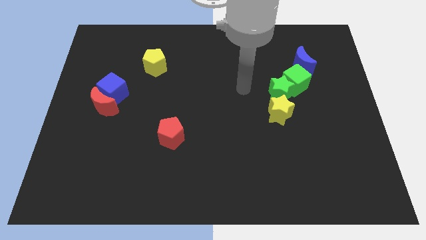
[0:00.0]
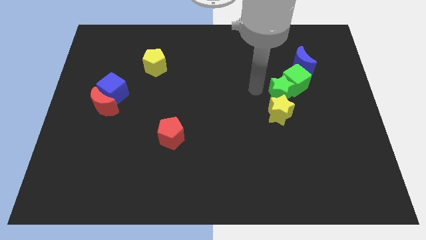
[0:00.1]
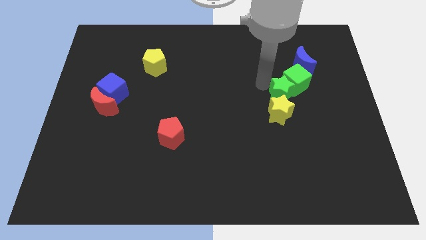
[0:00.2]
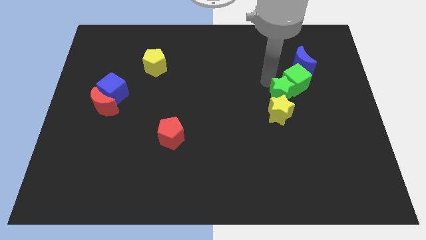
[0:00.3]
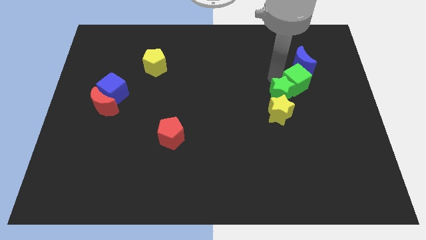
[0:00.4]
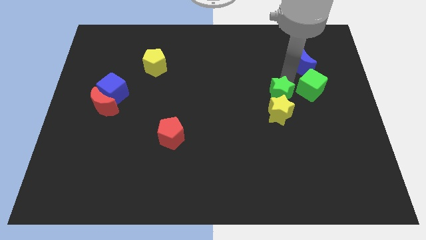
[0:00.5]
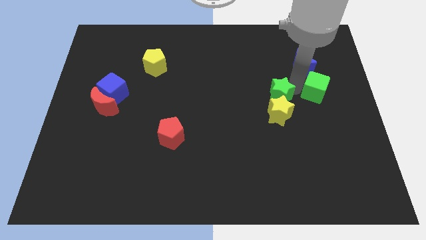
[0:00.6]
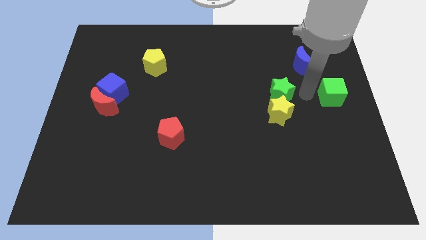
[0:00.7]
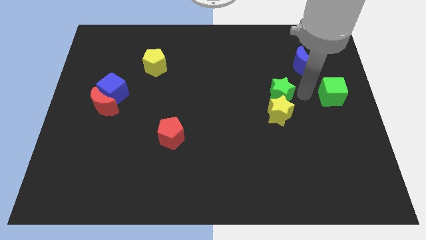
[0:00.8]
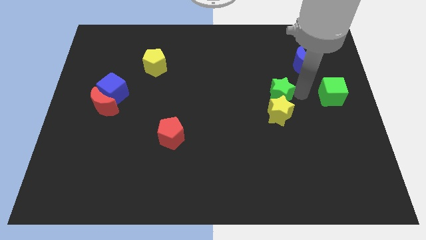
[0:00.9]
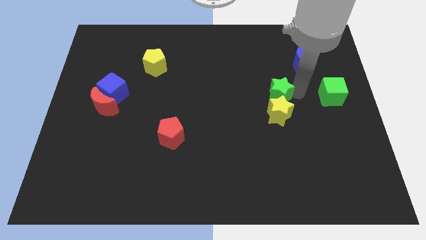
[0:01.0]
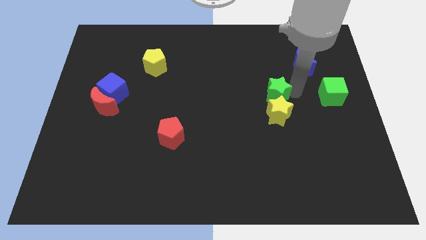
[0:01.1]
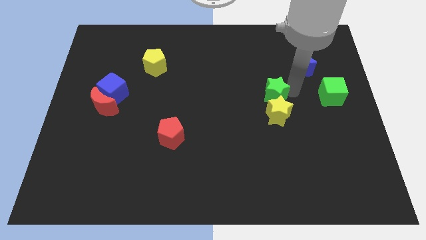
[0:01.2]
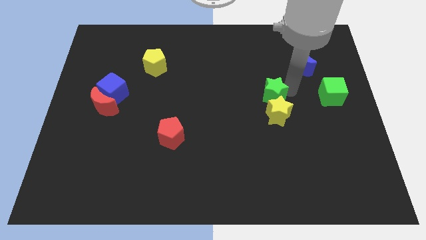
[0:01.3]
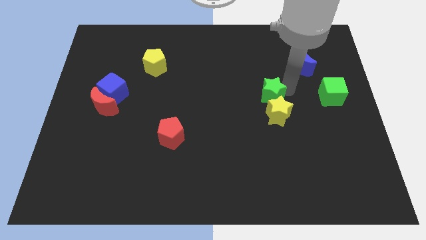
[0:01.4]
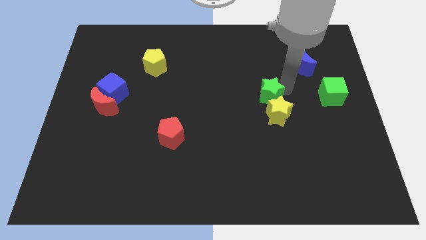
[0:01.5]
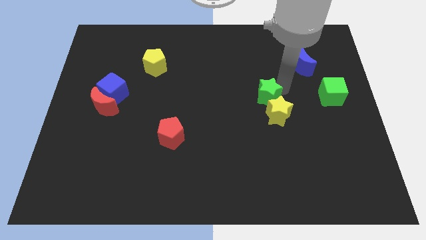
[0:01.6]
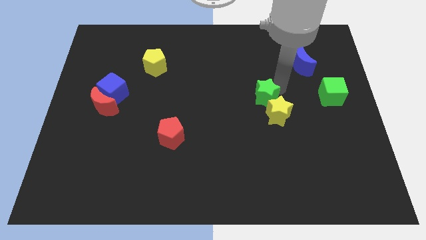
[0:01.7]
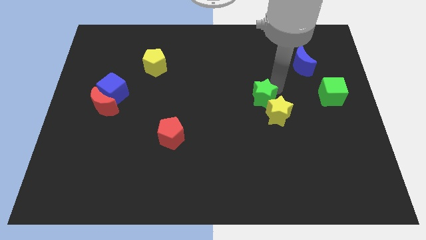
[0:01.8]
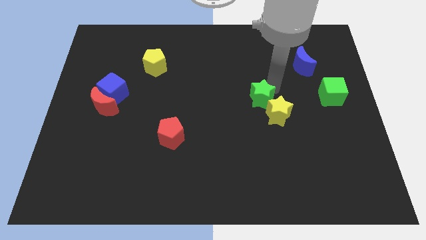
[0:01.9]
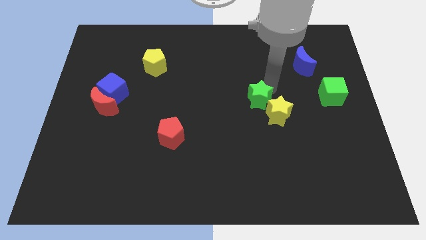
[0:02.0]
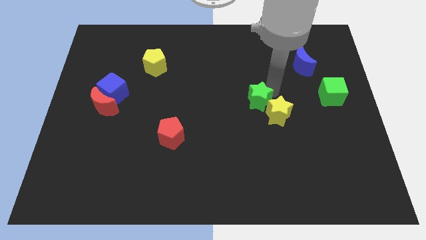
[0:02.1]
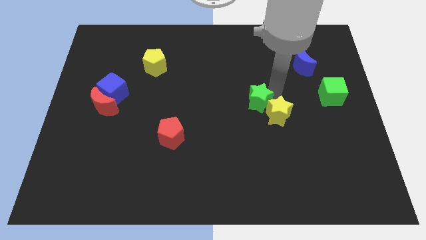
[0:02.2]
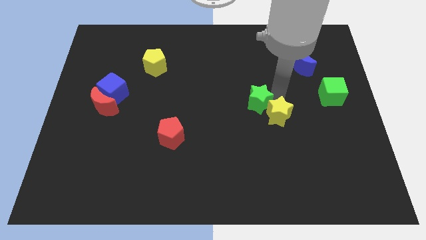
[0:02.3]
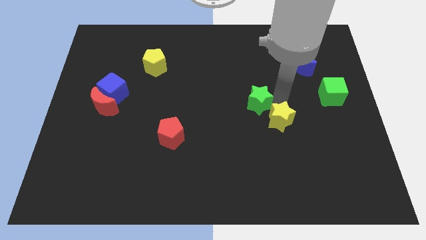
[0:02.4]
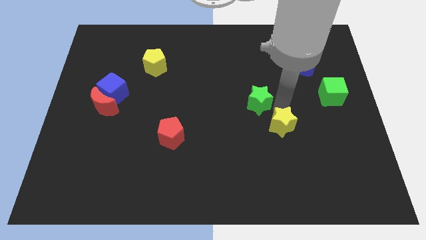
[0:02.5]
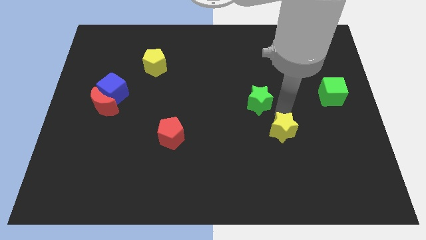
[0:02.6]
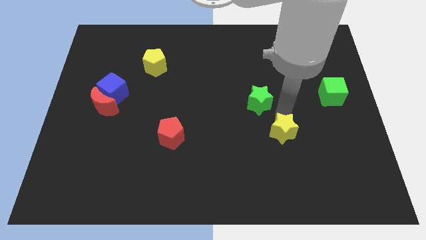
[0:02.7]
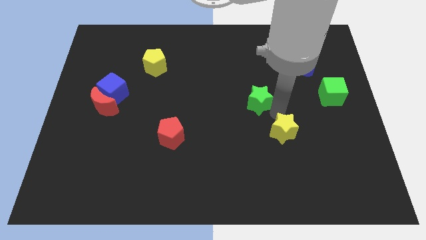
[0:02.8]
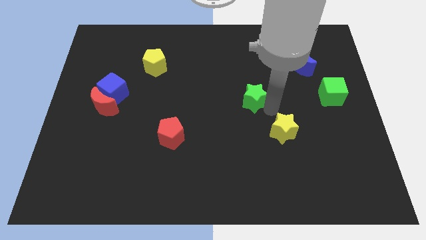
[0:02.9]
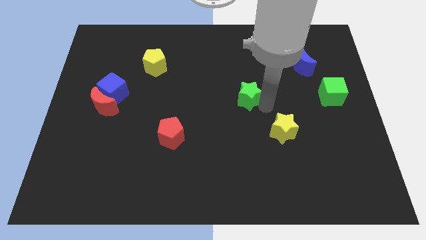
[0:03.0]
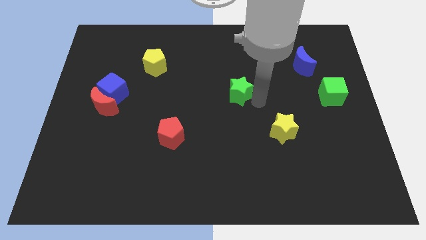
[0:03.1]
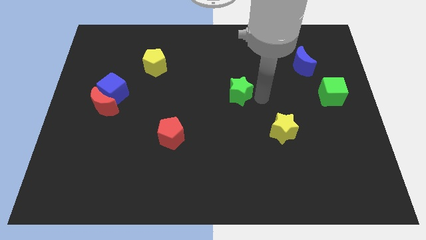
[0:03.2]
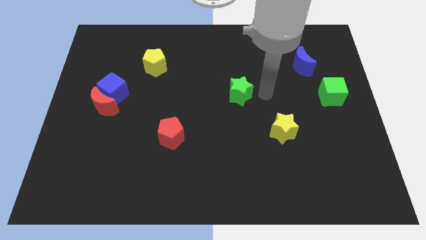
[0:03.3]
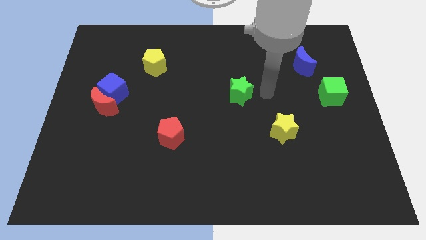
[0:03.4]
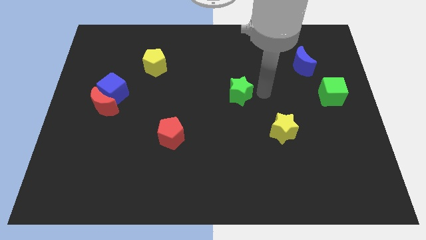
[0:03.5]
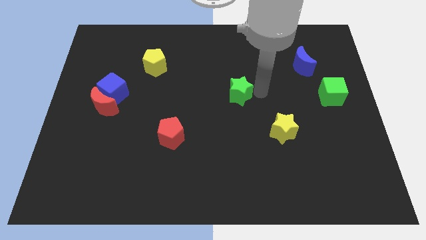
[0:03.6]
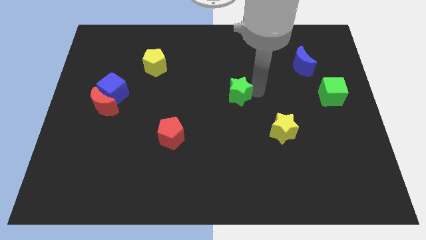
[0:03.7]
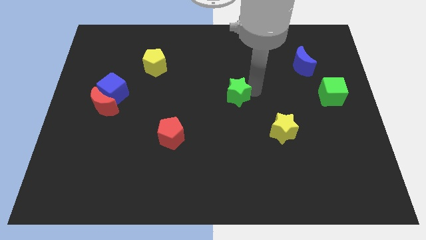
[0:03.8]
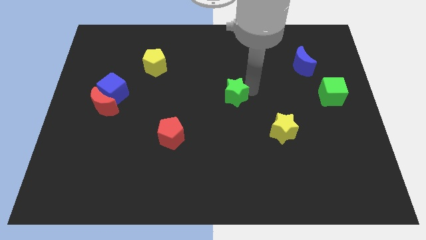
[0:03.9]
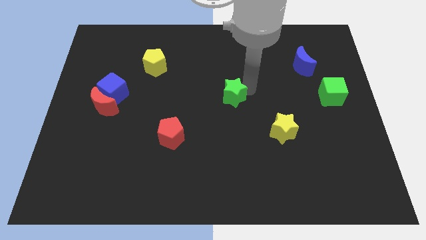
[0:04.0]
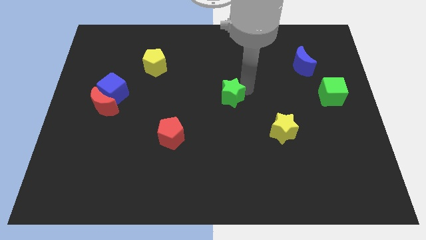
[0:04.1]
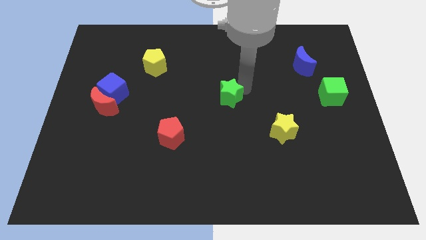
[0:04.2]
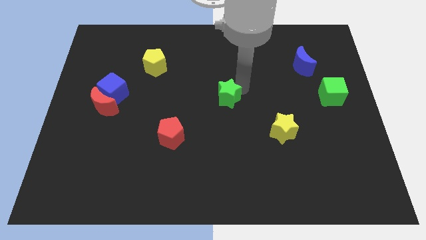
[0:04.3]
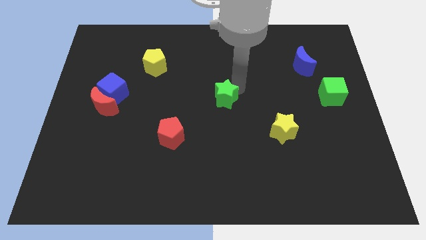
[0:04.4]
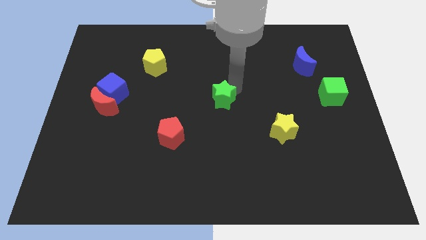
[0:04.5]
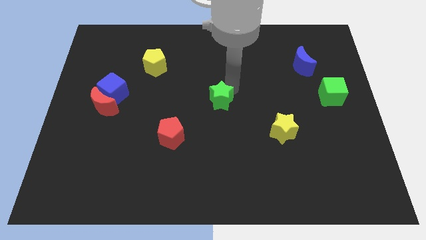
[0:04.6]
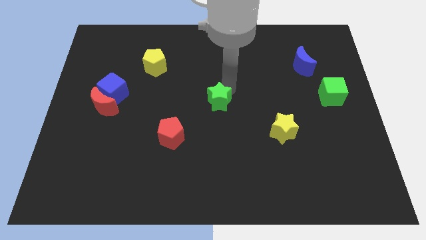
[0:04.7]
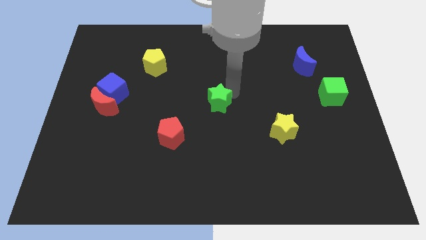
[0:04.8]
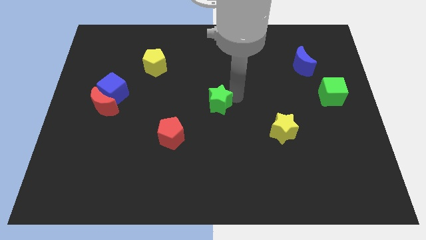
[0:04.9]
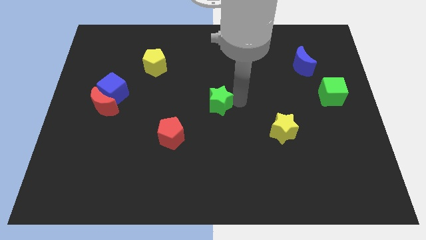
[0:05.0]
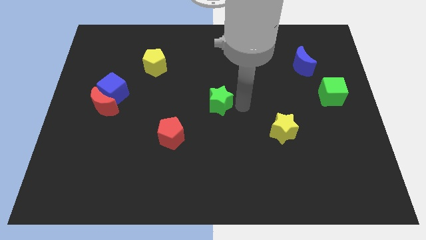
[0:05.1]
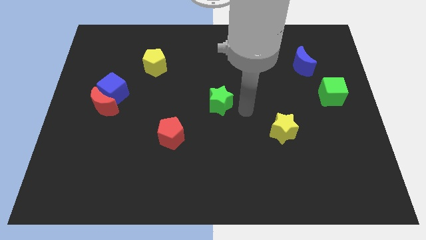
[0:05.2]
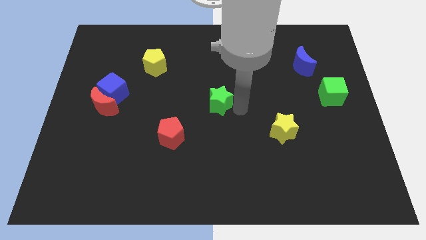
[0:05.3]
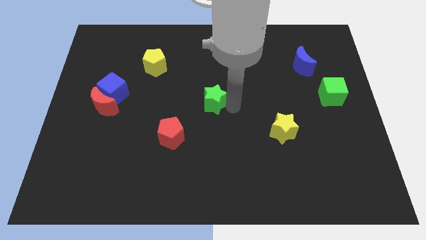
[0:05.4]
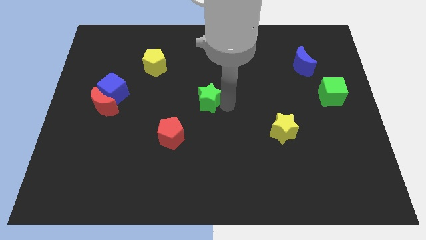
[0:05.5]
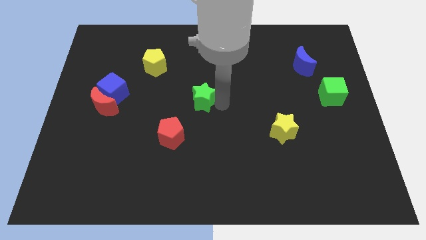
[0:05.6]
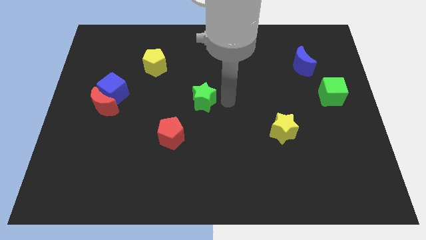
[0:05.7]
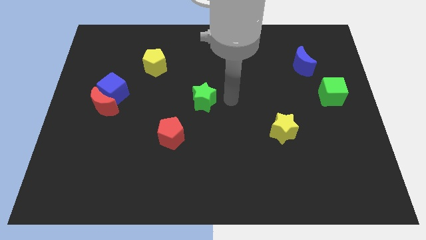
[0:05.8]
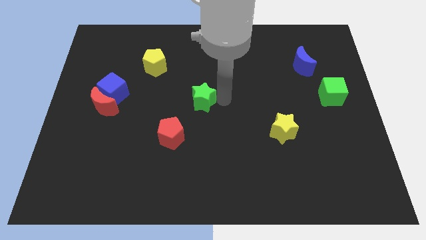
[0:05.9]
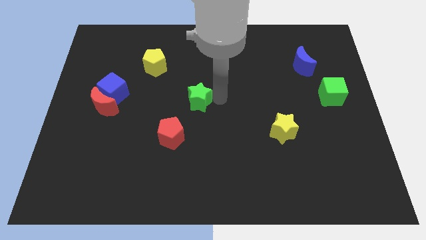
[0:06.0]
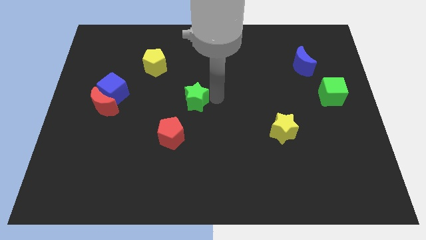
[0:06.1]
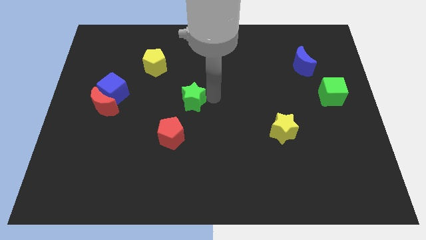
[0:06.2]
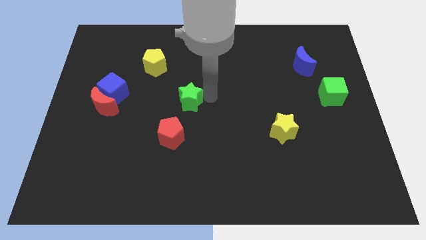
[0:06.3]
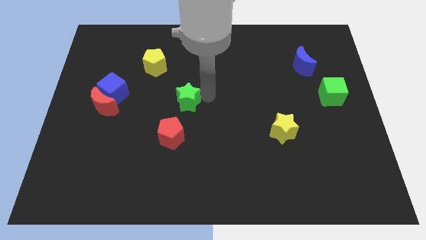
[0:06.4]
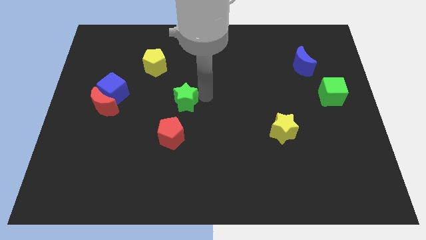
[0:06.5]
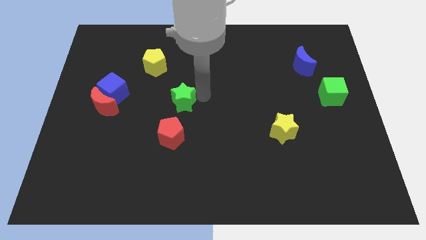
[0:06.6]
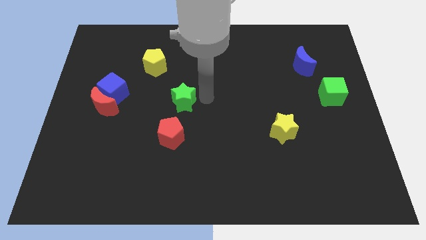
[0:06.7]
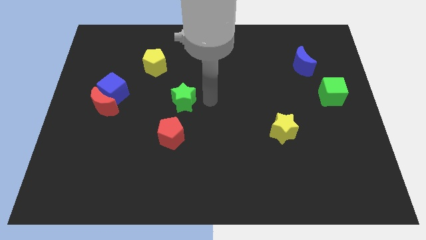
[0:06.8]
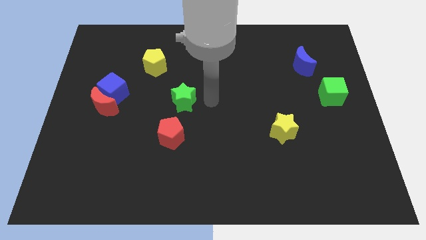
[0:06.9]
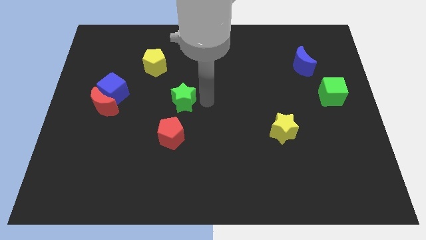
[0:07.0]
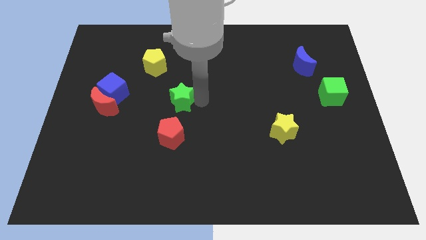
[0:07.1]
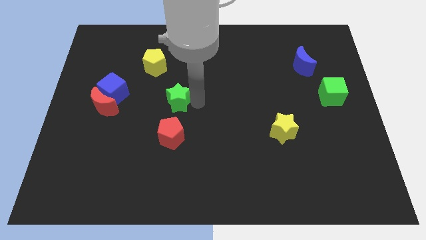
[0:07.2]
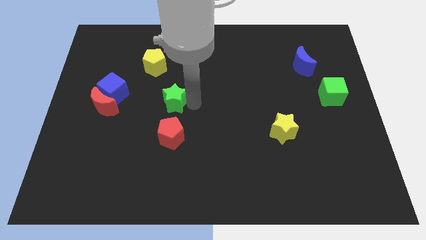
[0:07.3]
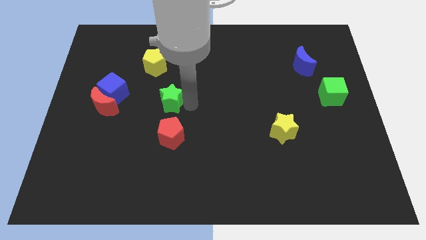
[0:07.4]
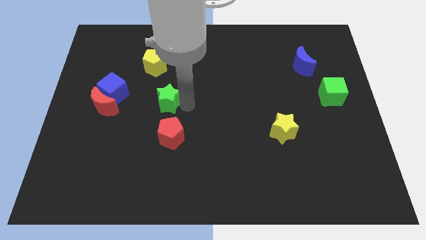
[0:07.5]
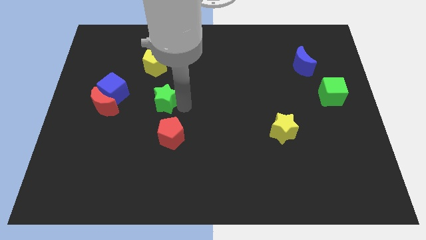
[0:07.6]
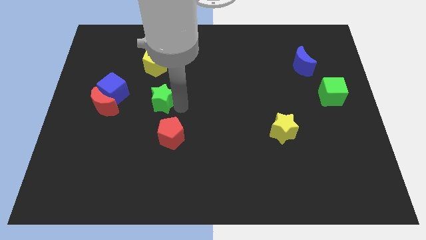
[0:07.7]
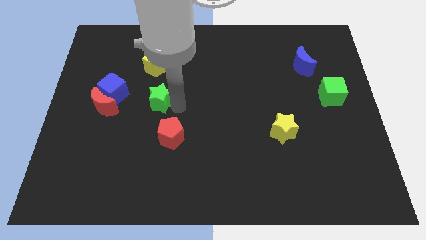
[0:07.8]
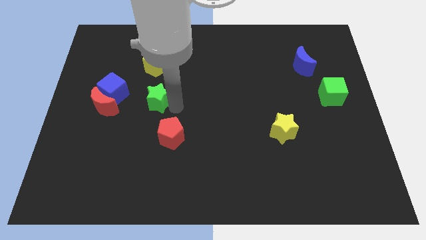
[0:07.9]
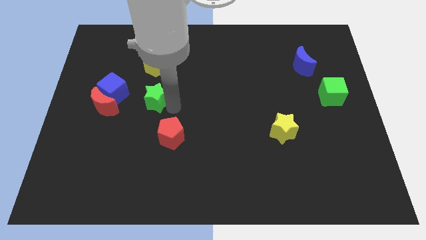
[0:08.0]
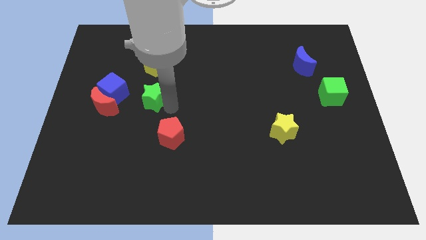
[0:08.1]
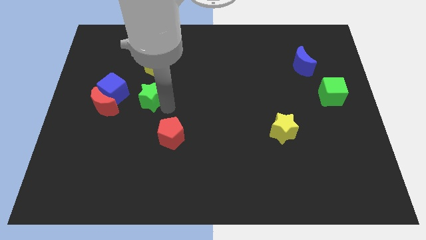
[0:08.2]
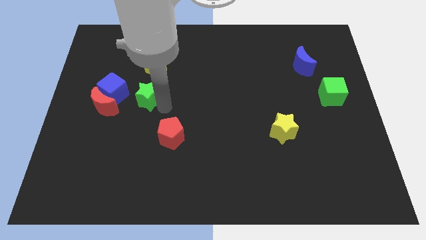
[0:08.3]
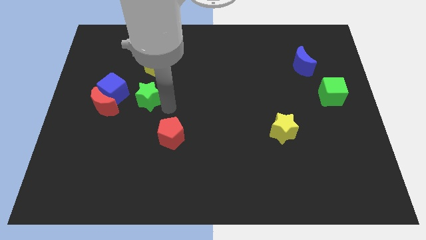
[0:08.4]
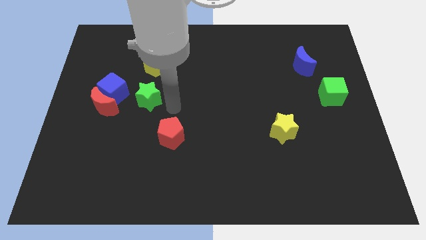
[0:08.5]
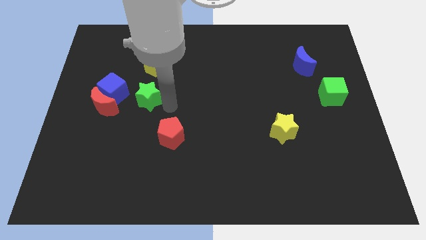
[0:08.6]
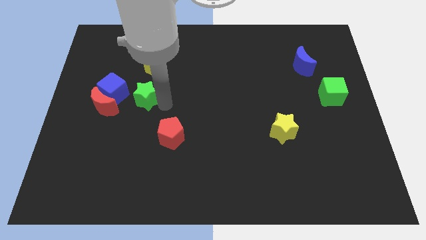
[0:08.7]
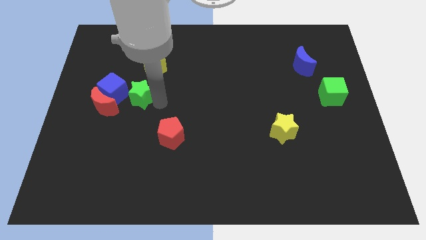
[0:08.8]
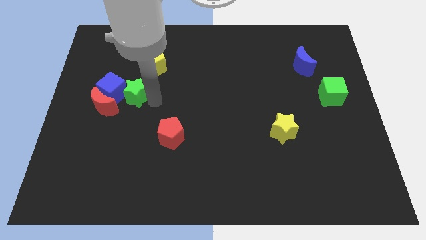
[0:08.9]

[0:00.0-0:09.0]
move the green star next to the blue cube
